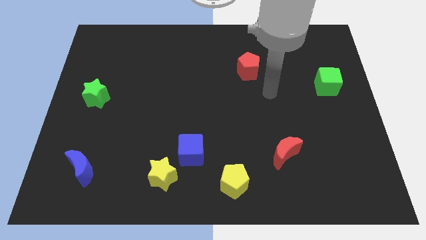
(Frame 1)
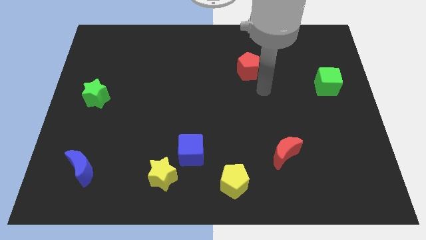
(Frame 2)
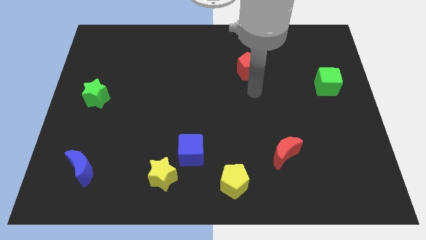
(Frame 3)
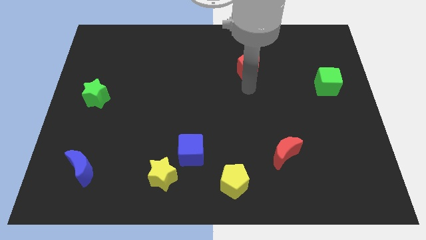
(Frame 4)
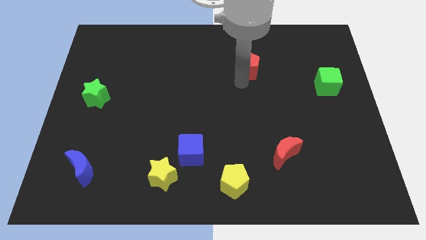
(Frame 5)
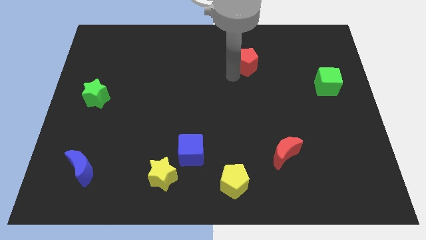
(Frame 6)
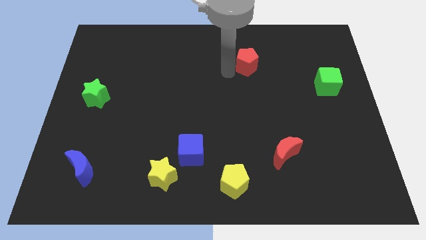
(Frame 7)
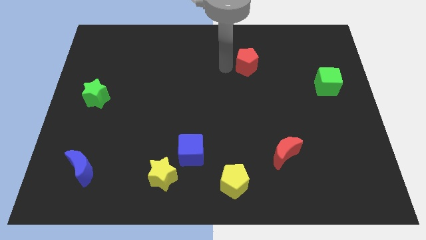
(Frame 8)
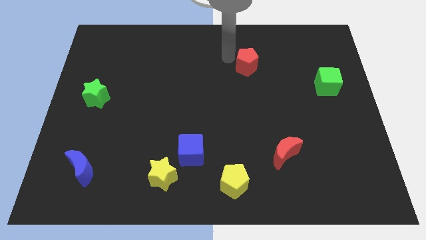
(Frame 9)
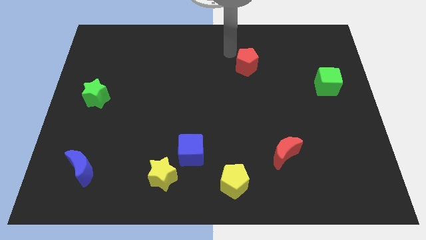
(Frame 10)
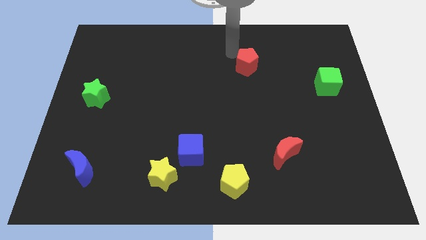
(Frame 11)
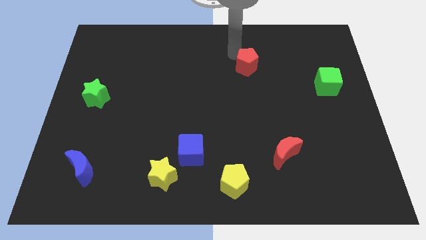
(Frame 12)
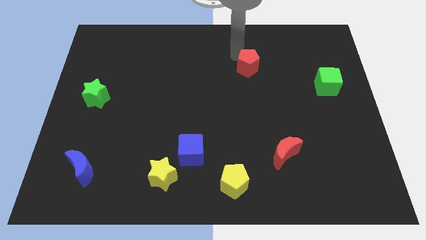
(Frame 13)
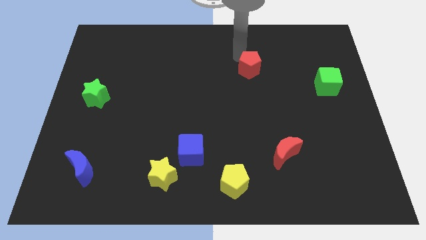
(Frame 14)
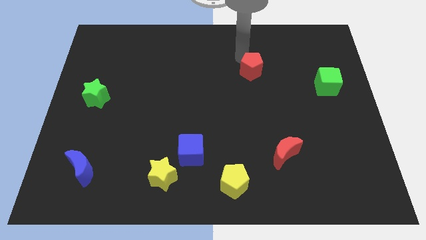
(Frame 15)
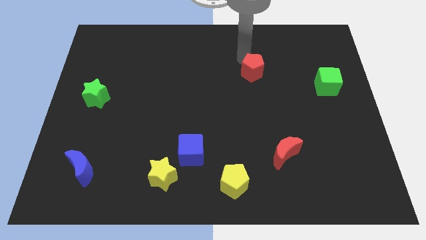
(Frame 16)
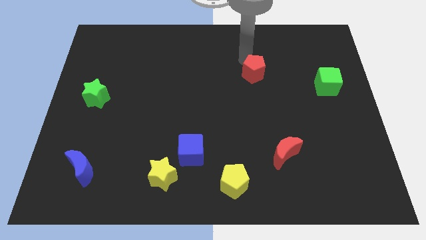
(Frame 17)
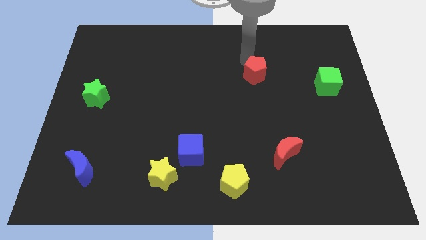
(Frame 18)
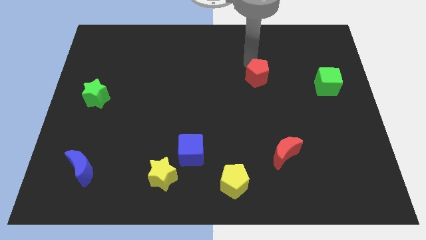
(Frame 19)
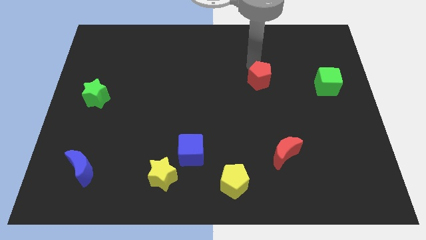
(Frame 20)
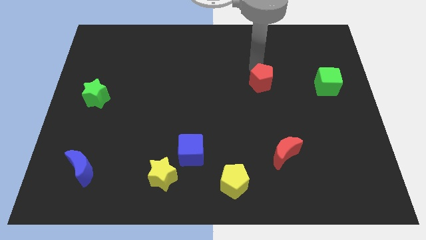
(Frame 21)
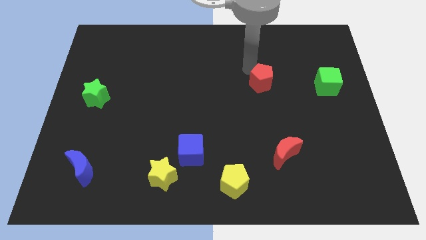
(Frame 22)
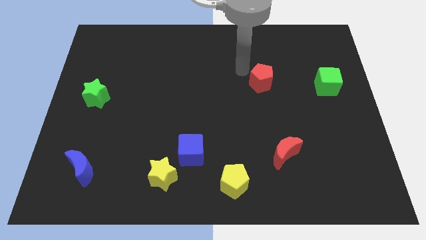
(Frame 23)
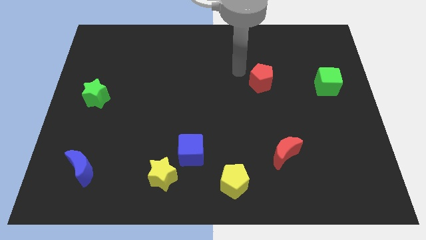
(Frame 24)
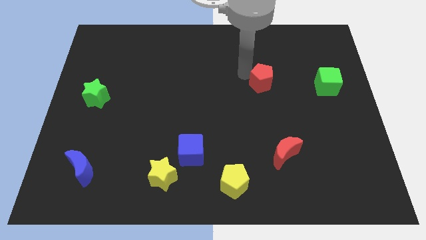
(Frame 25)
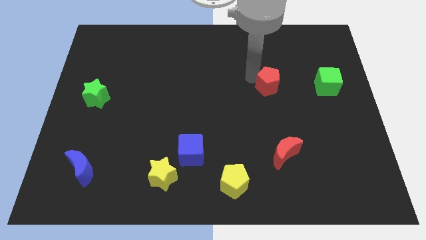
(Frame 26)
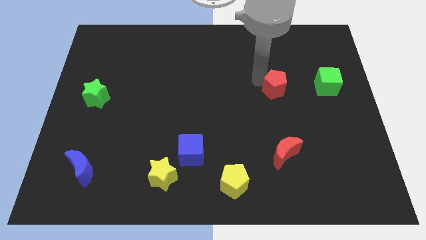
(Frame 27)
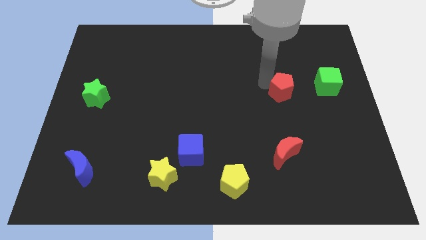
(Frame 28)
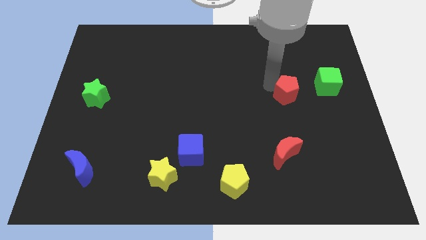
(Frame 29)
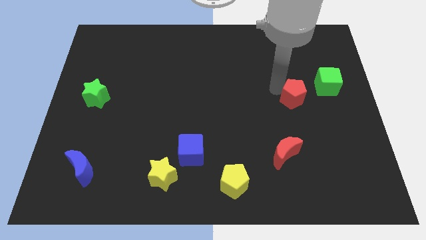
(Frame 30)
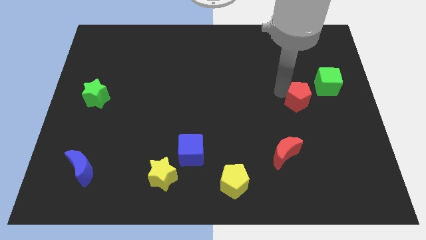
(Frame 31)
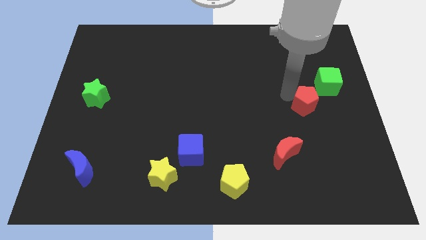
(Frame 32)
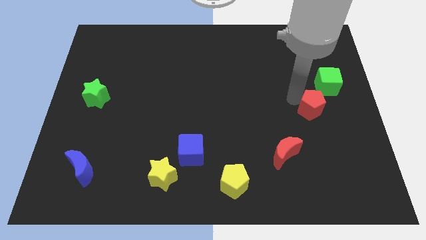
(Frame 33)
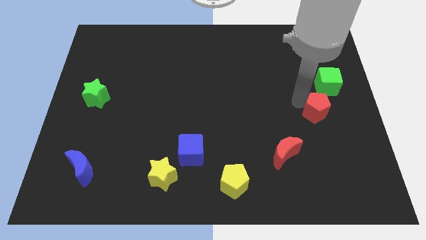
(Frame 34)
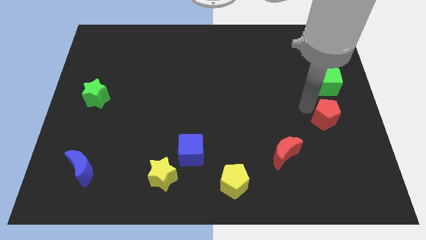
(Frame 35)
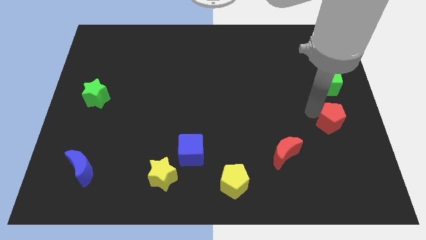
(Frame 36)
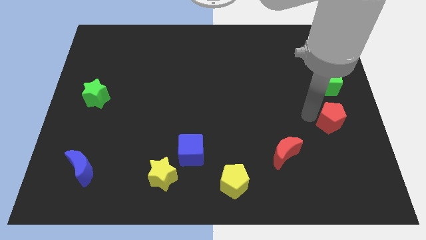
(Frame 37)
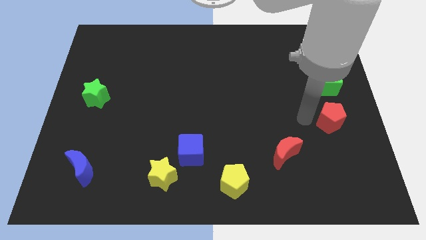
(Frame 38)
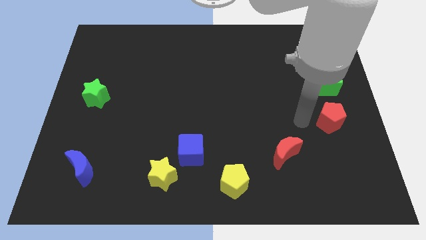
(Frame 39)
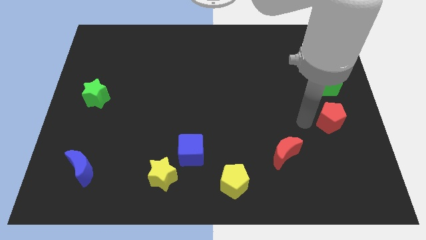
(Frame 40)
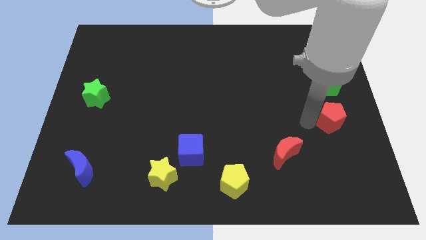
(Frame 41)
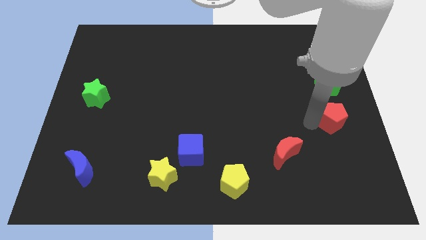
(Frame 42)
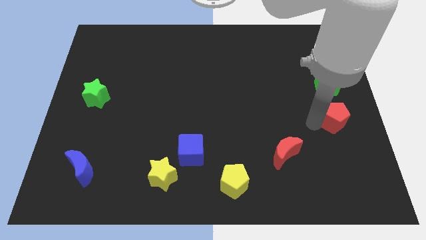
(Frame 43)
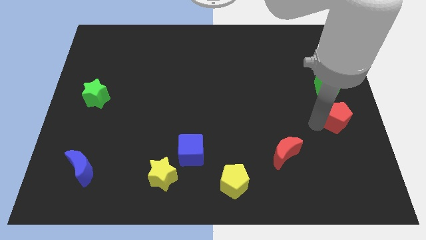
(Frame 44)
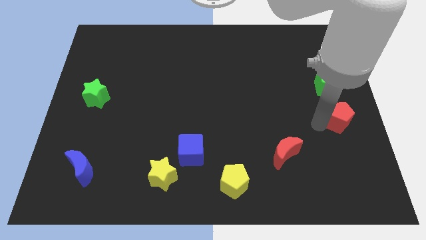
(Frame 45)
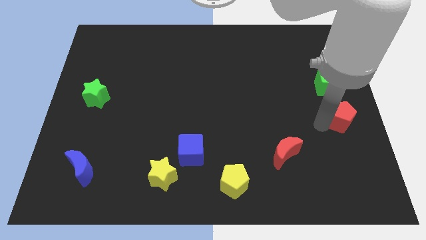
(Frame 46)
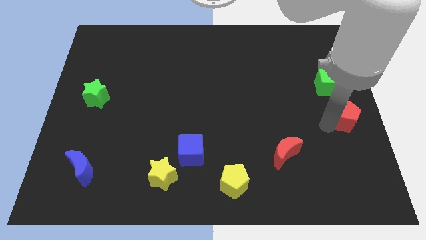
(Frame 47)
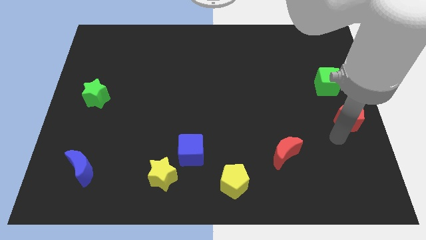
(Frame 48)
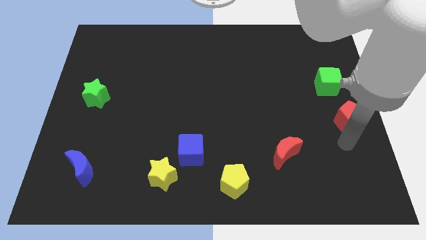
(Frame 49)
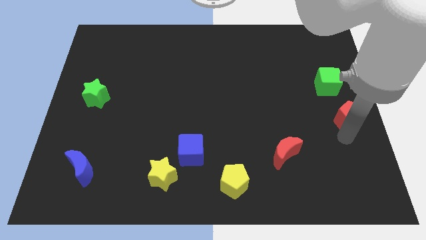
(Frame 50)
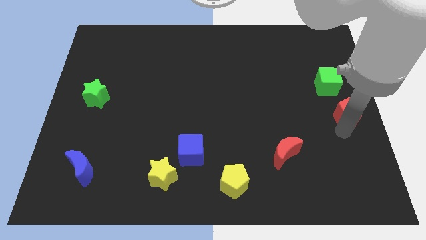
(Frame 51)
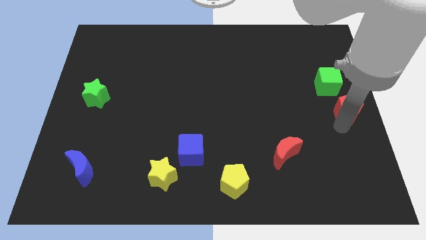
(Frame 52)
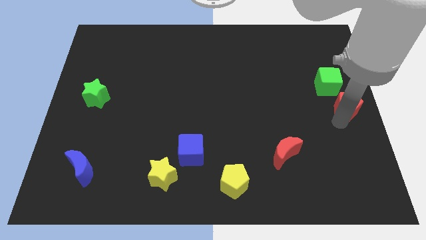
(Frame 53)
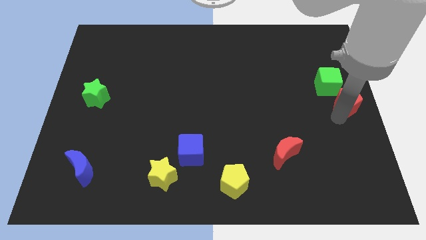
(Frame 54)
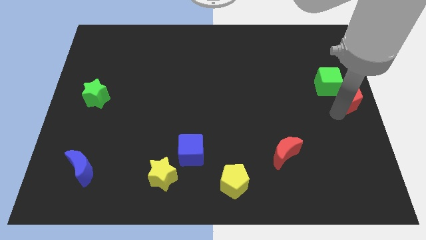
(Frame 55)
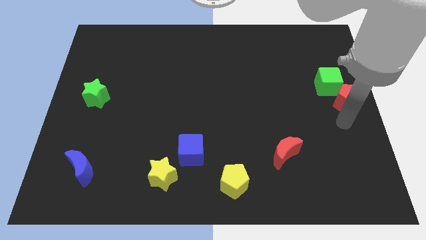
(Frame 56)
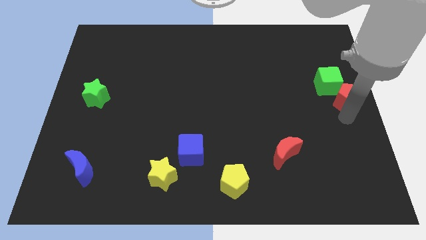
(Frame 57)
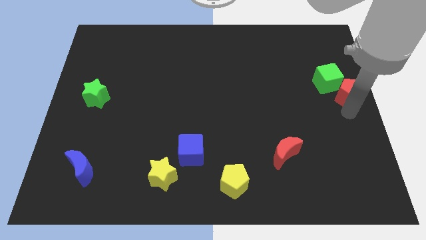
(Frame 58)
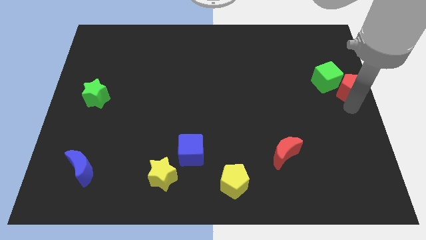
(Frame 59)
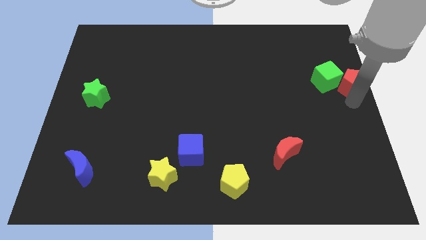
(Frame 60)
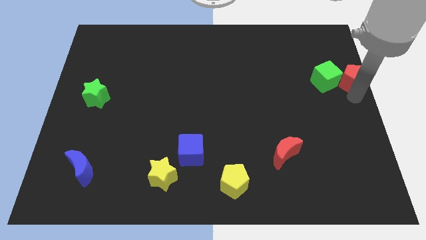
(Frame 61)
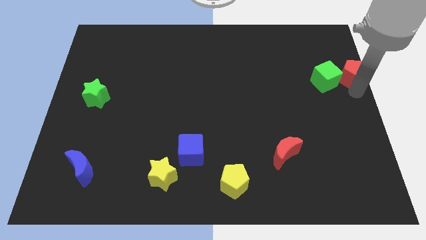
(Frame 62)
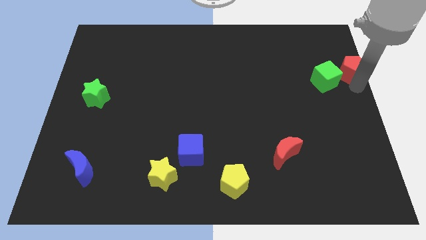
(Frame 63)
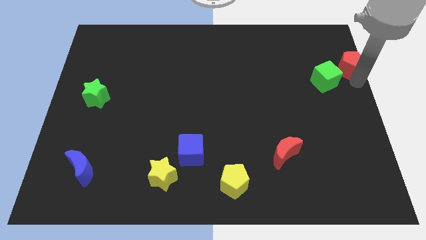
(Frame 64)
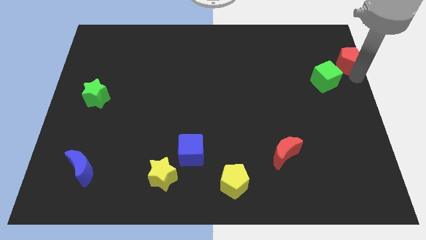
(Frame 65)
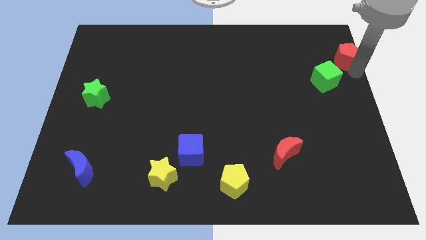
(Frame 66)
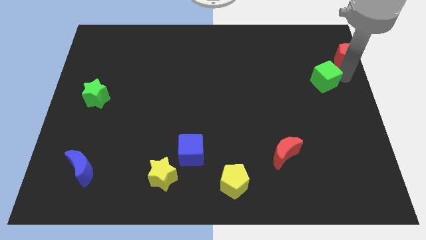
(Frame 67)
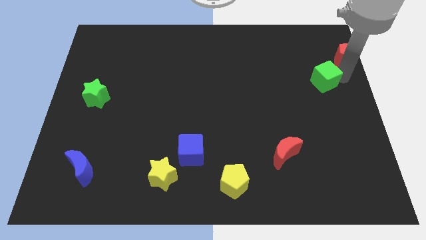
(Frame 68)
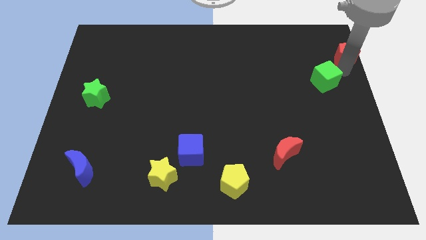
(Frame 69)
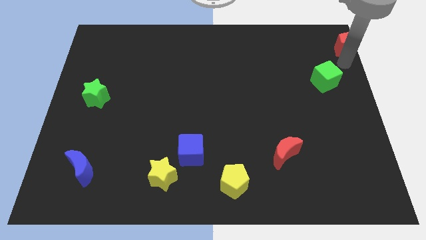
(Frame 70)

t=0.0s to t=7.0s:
push the red pentagon to the top right
